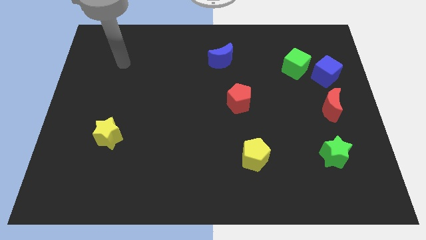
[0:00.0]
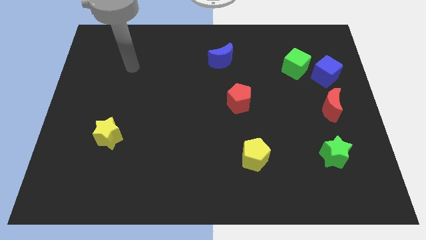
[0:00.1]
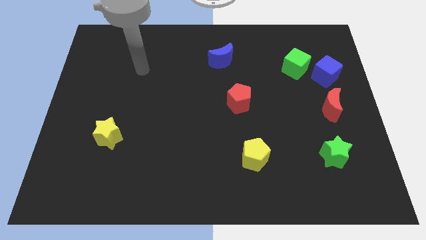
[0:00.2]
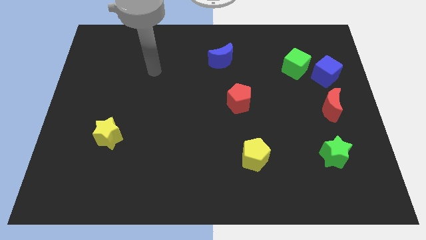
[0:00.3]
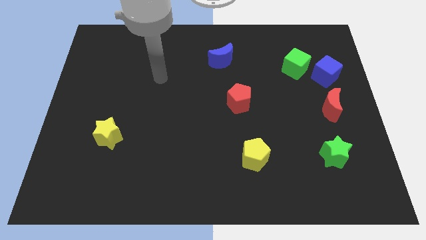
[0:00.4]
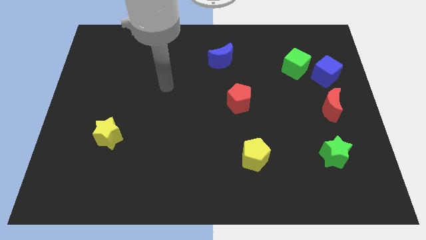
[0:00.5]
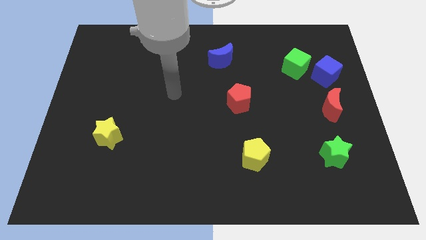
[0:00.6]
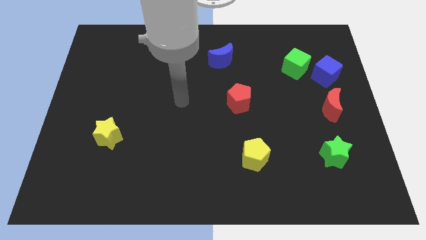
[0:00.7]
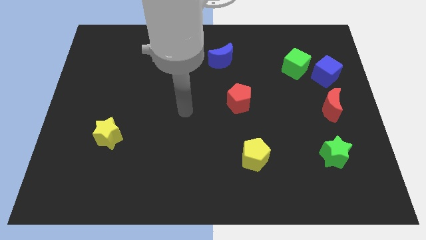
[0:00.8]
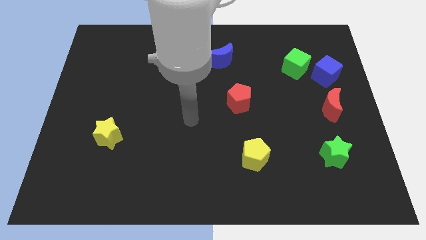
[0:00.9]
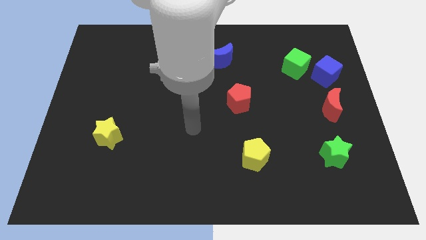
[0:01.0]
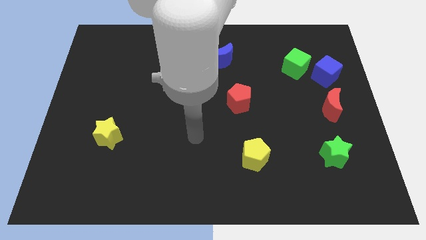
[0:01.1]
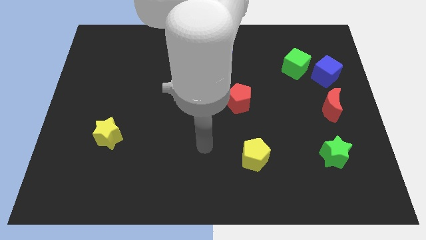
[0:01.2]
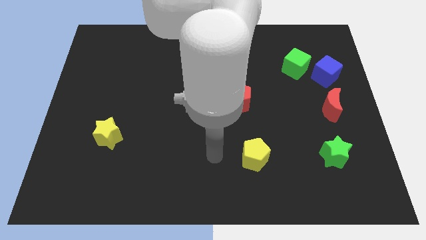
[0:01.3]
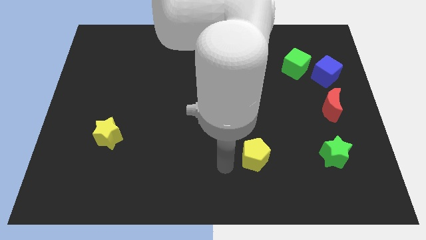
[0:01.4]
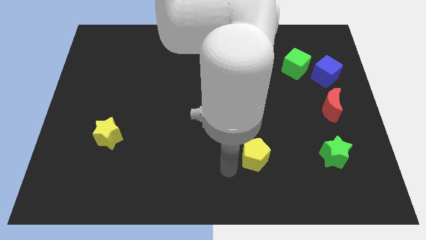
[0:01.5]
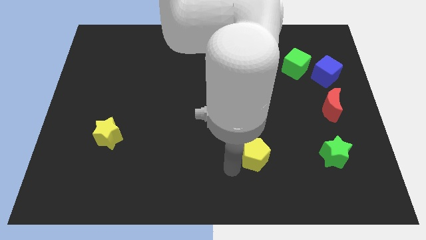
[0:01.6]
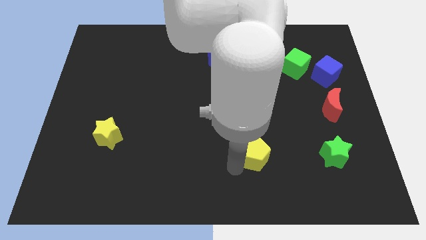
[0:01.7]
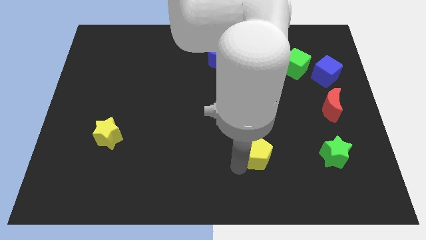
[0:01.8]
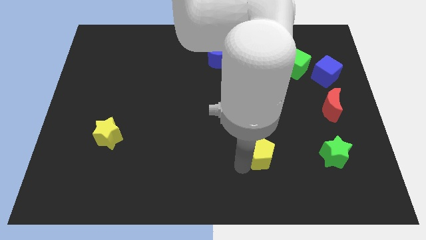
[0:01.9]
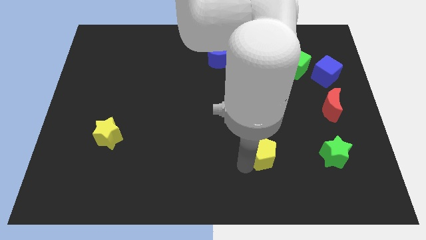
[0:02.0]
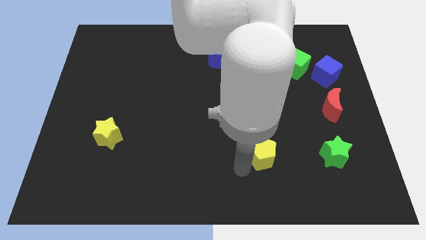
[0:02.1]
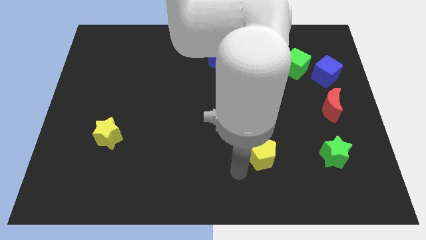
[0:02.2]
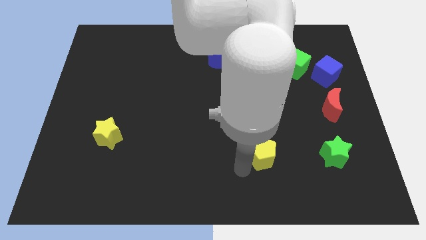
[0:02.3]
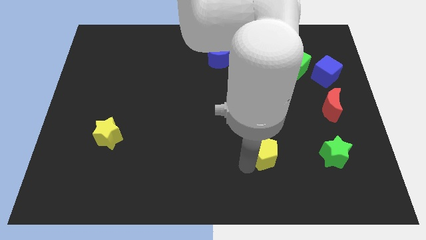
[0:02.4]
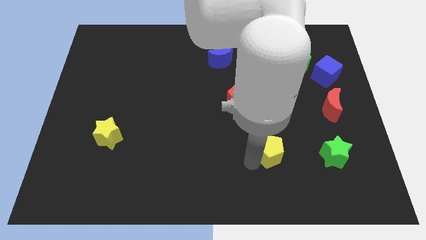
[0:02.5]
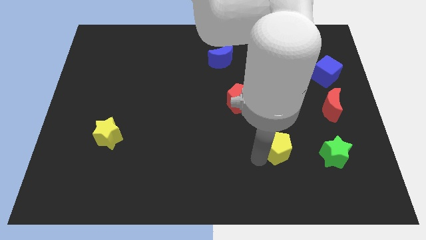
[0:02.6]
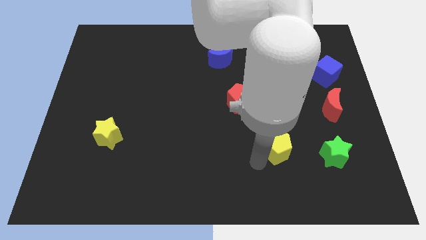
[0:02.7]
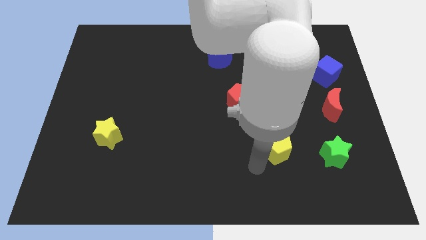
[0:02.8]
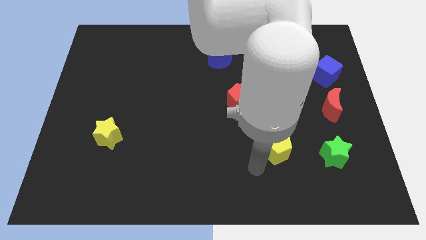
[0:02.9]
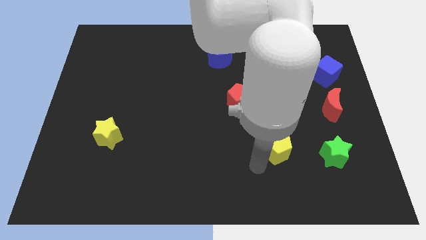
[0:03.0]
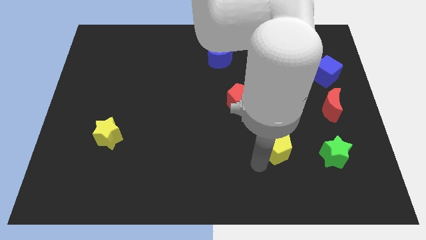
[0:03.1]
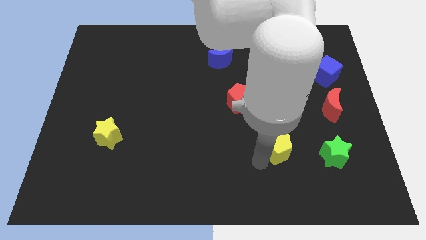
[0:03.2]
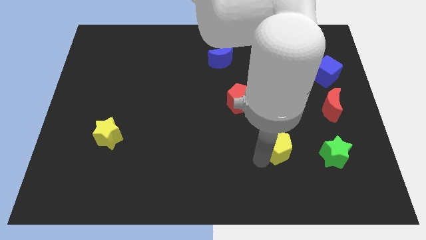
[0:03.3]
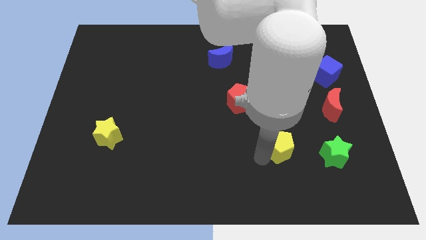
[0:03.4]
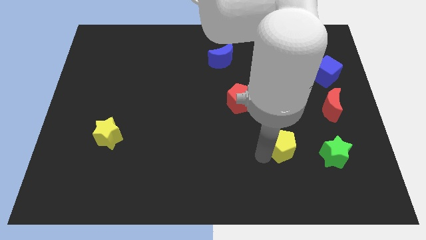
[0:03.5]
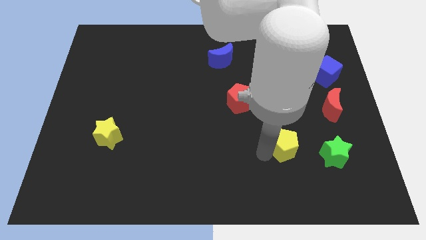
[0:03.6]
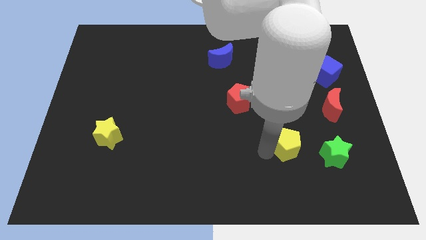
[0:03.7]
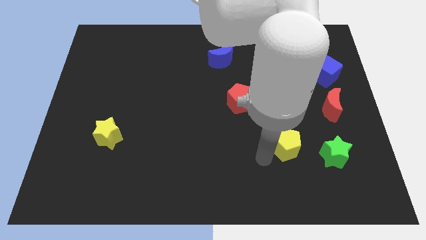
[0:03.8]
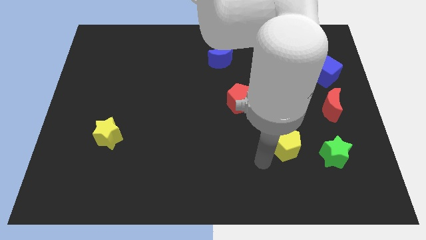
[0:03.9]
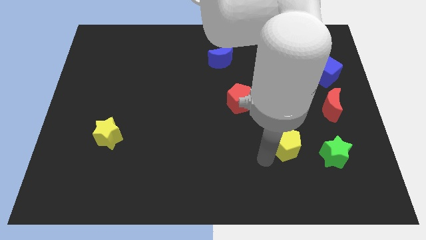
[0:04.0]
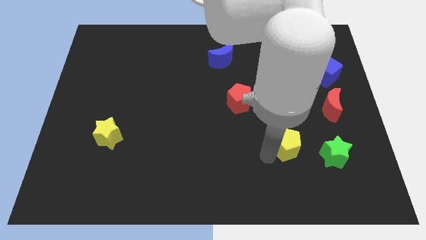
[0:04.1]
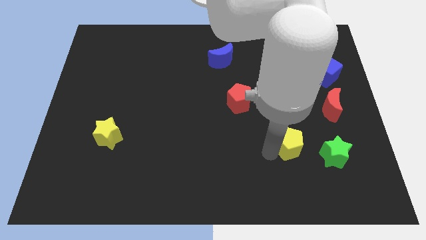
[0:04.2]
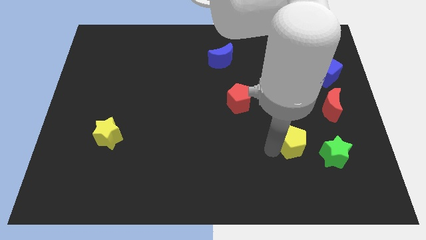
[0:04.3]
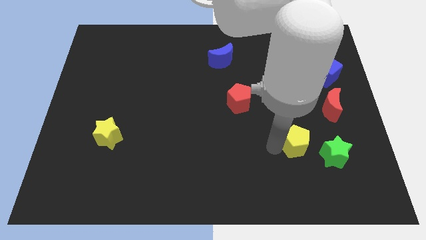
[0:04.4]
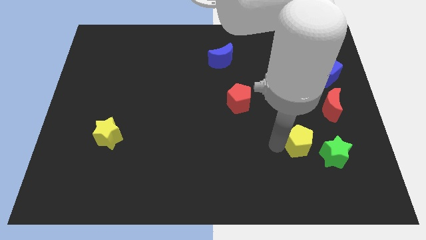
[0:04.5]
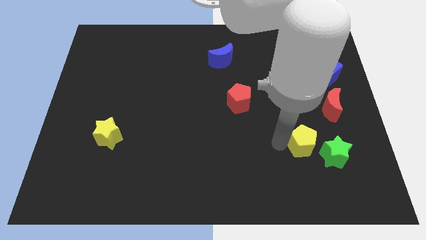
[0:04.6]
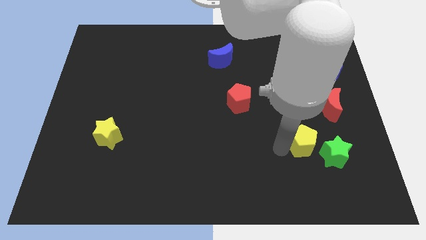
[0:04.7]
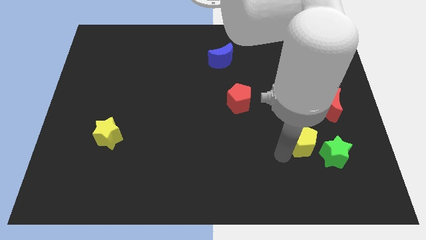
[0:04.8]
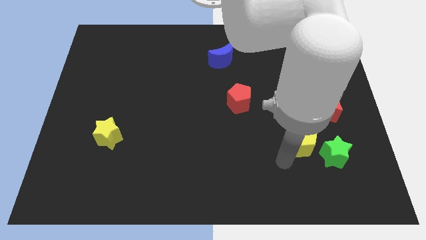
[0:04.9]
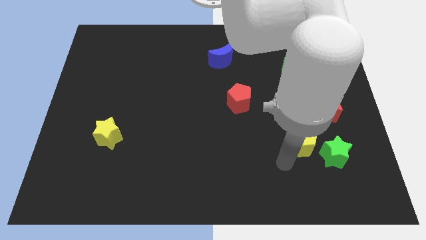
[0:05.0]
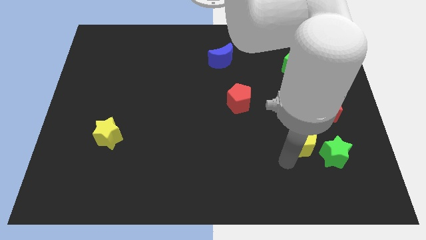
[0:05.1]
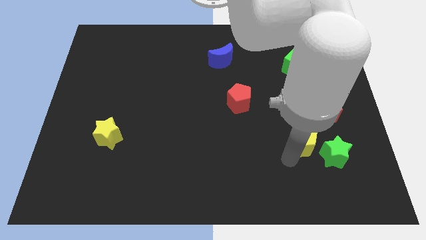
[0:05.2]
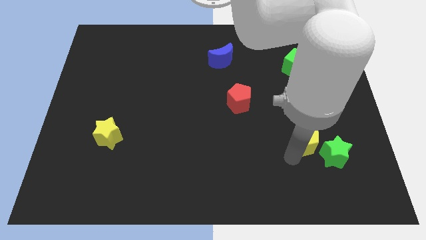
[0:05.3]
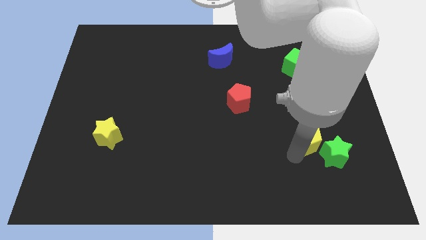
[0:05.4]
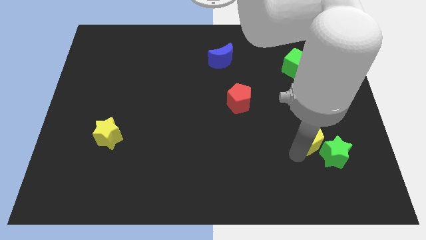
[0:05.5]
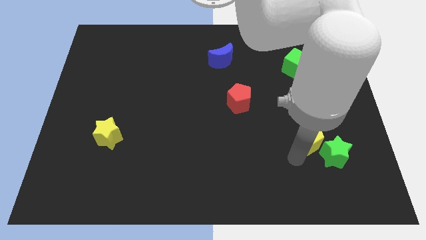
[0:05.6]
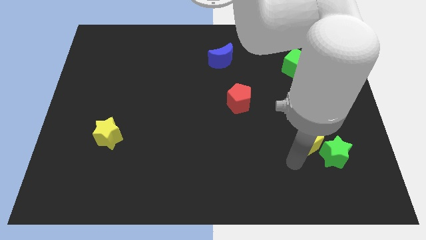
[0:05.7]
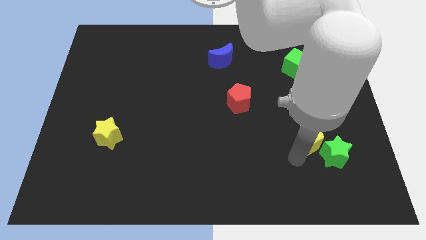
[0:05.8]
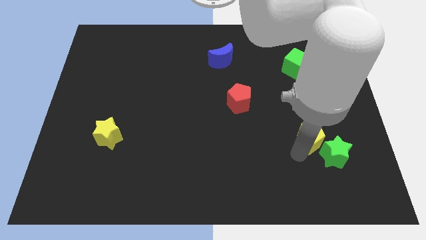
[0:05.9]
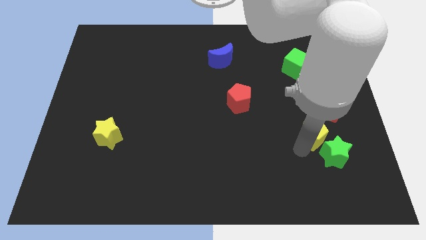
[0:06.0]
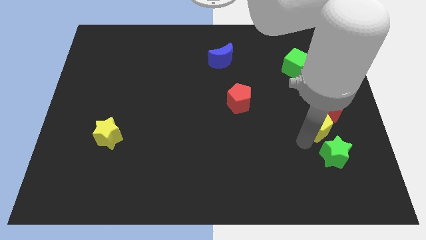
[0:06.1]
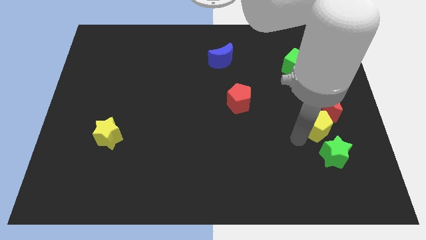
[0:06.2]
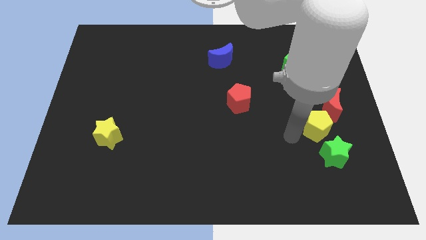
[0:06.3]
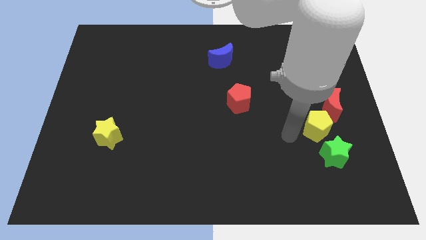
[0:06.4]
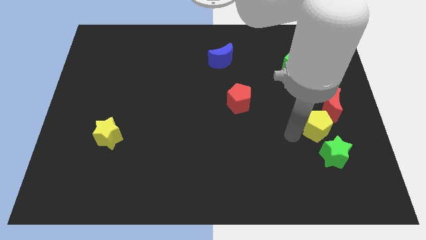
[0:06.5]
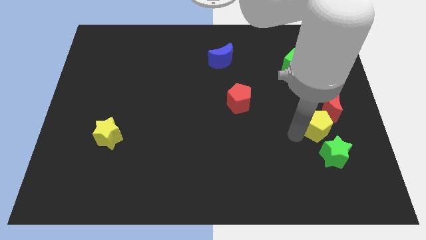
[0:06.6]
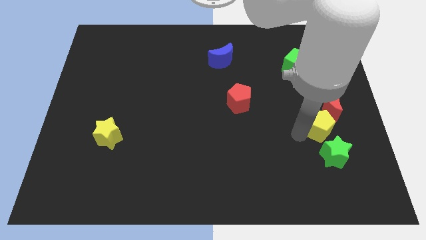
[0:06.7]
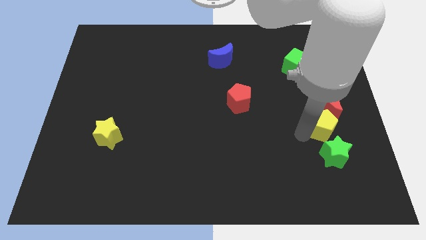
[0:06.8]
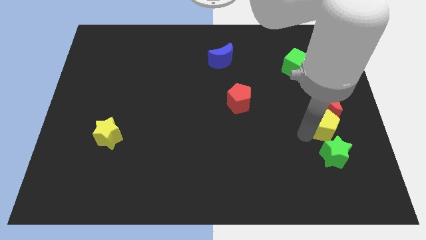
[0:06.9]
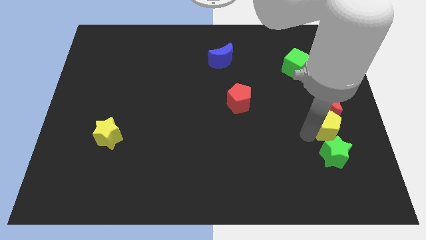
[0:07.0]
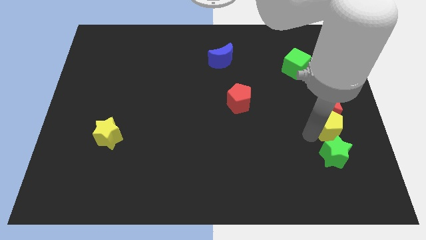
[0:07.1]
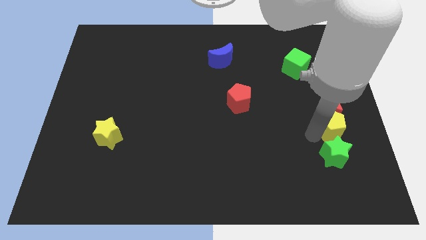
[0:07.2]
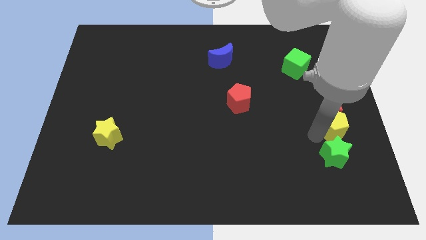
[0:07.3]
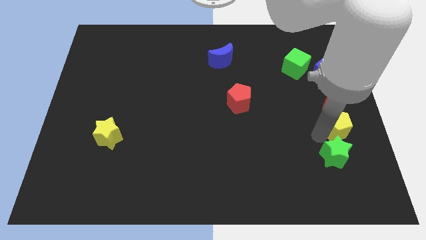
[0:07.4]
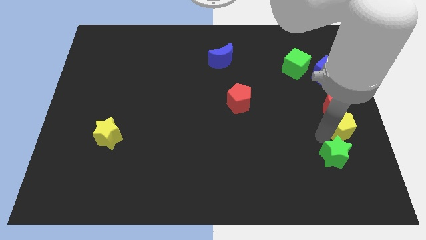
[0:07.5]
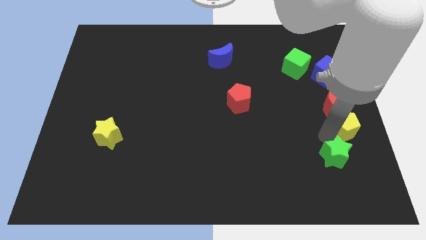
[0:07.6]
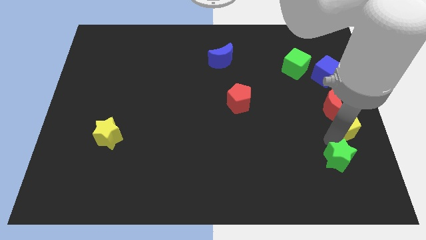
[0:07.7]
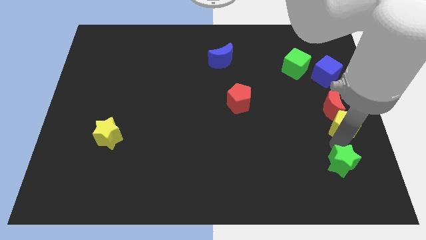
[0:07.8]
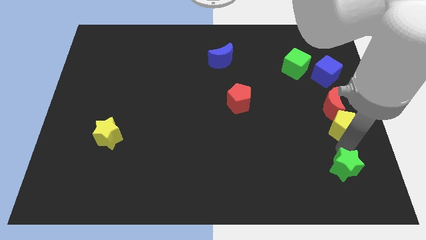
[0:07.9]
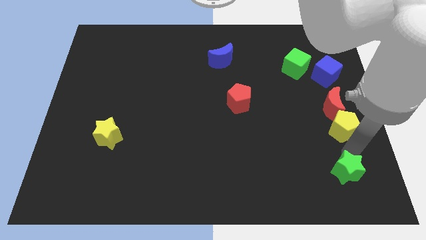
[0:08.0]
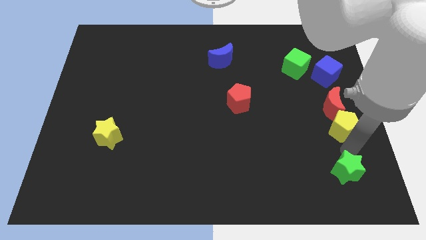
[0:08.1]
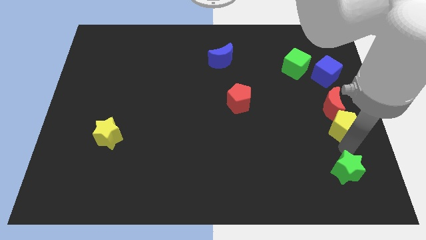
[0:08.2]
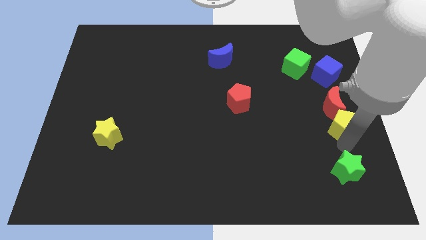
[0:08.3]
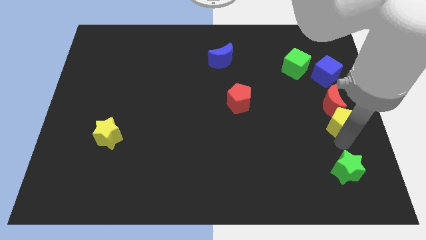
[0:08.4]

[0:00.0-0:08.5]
move the yellow pentagon to the bottom of the blue cube
